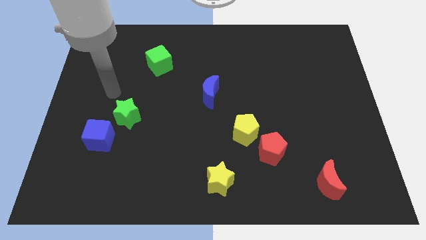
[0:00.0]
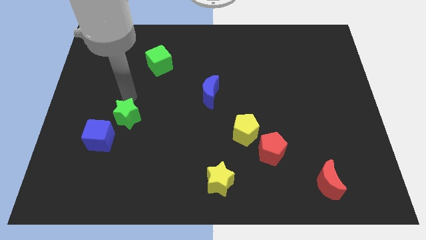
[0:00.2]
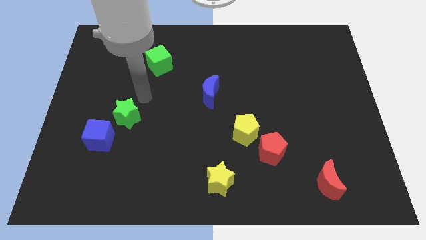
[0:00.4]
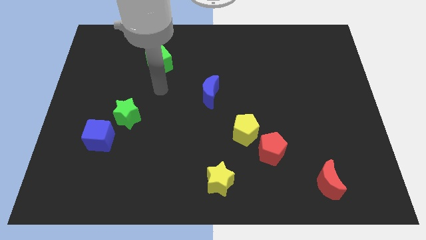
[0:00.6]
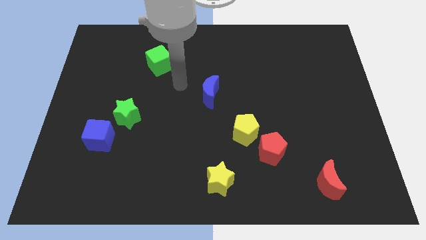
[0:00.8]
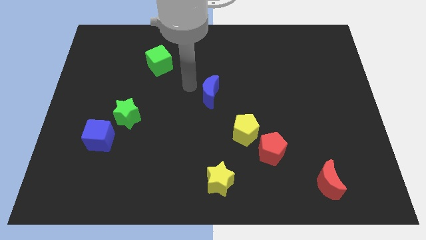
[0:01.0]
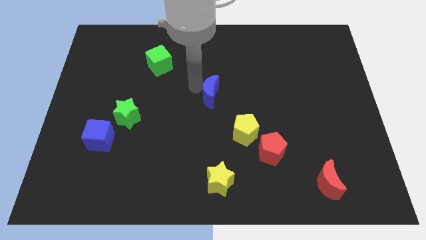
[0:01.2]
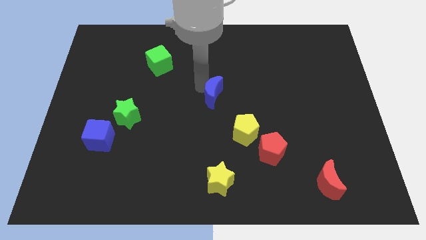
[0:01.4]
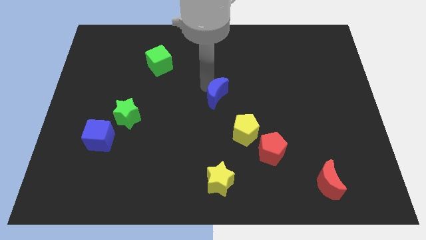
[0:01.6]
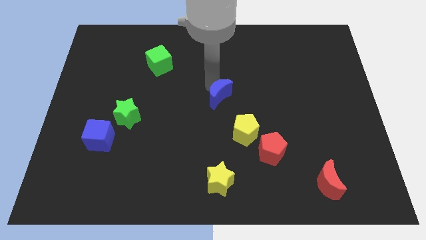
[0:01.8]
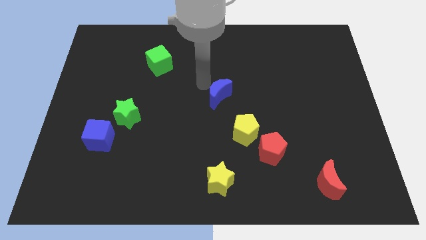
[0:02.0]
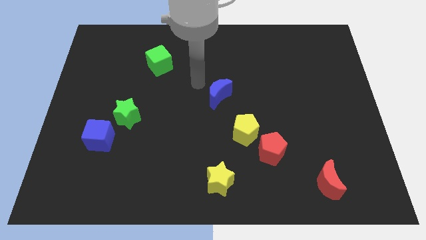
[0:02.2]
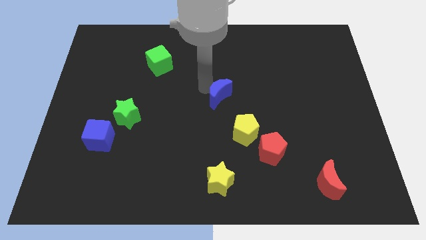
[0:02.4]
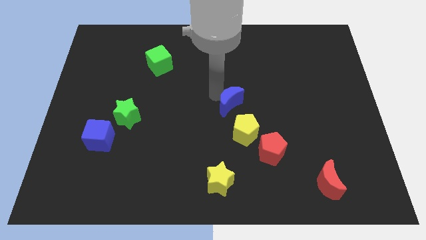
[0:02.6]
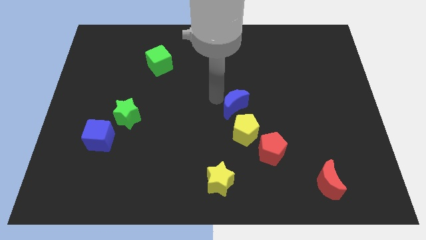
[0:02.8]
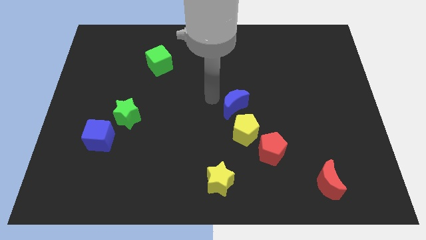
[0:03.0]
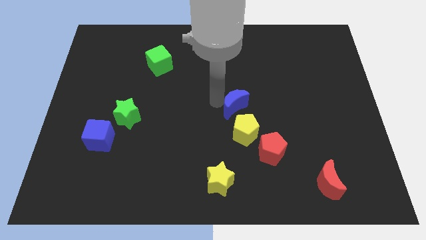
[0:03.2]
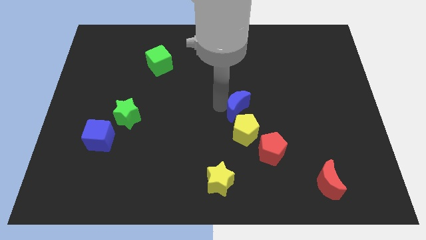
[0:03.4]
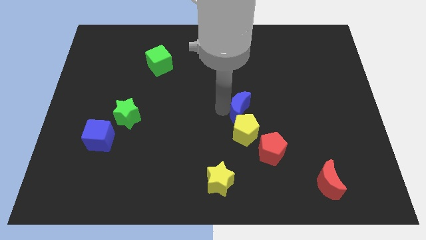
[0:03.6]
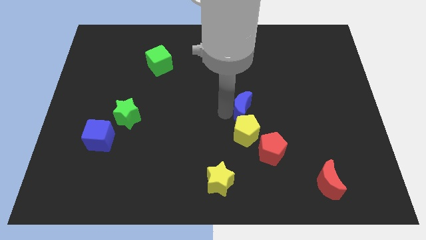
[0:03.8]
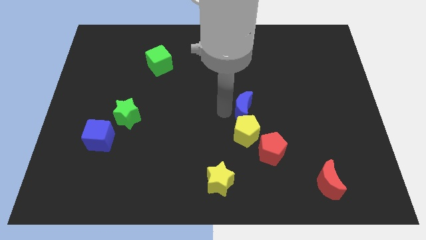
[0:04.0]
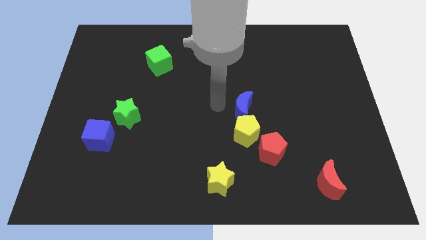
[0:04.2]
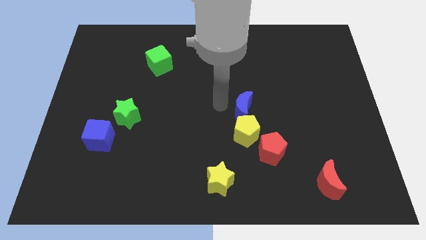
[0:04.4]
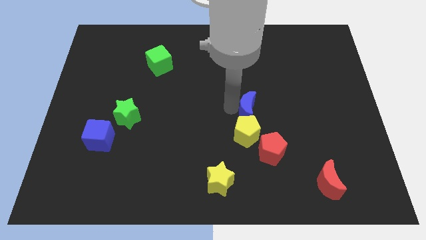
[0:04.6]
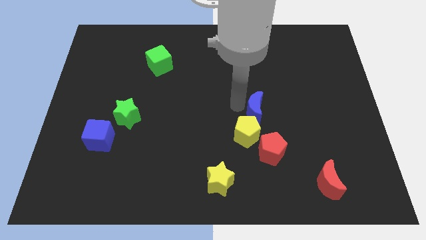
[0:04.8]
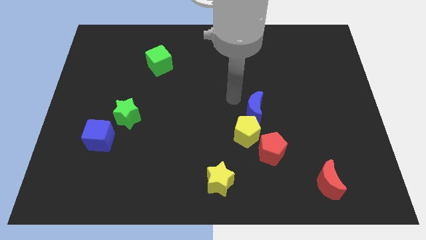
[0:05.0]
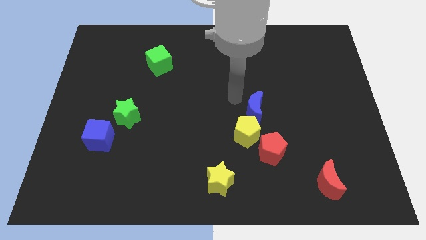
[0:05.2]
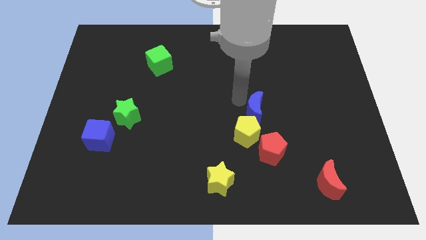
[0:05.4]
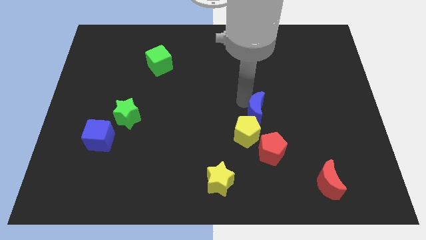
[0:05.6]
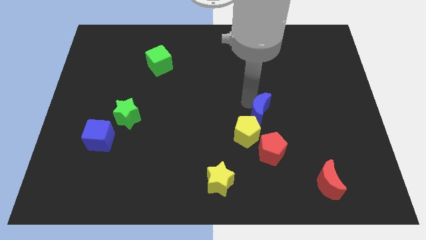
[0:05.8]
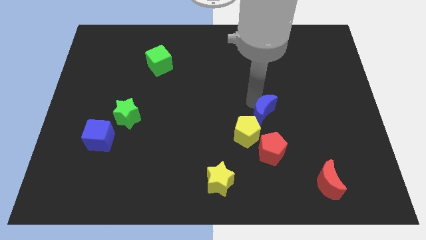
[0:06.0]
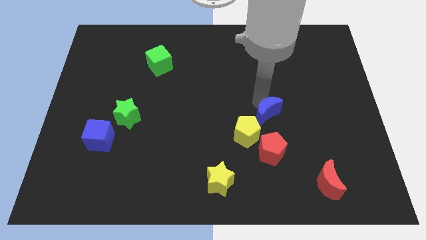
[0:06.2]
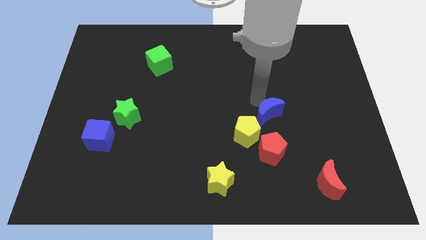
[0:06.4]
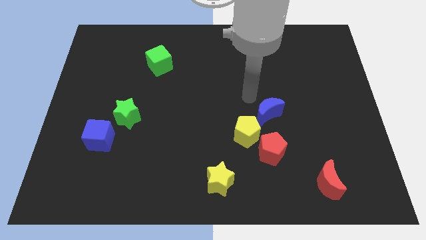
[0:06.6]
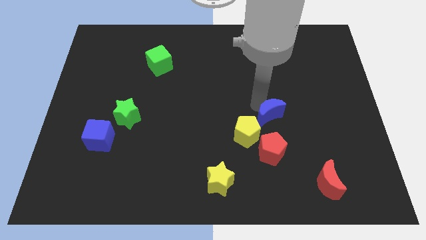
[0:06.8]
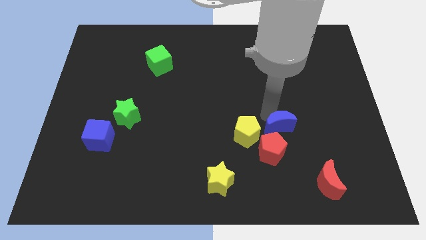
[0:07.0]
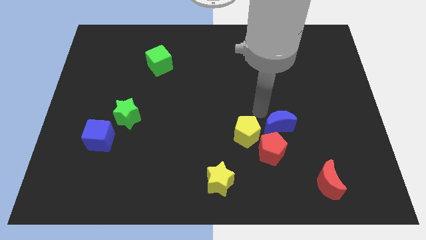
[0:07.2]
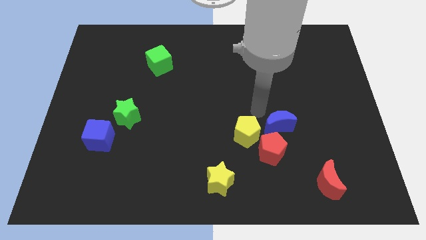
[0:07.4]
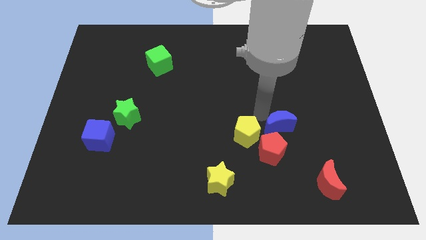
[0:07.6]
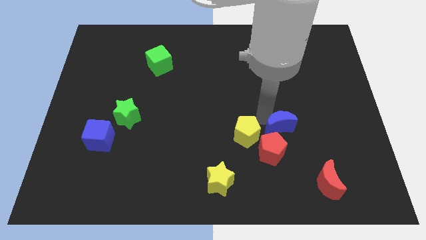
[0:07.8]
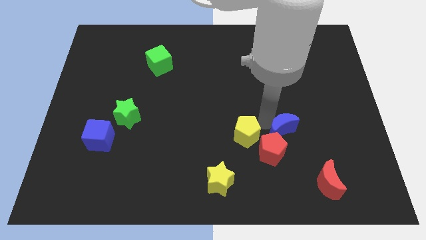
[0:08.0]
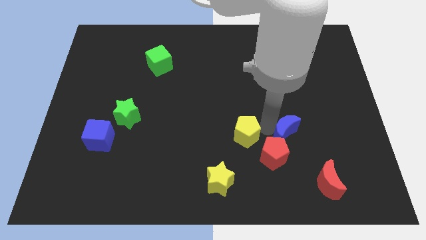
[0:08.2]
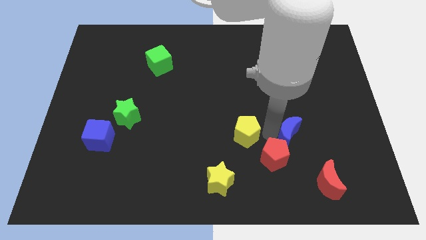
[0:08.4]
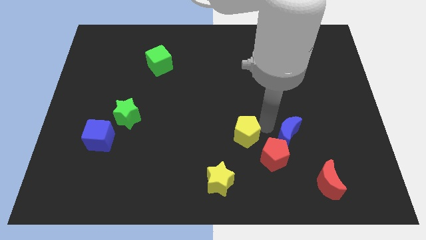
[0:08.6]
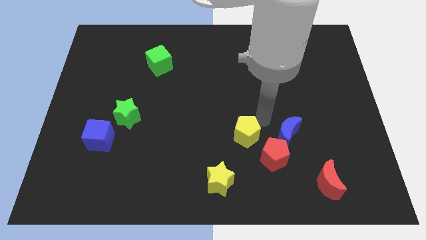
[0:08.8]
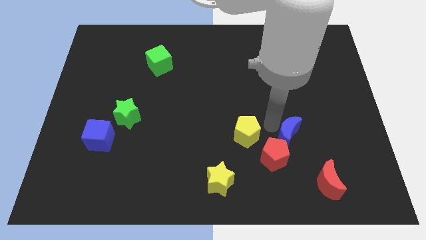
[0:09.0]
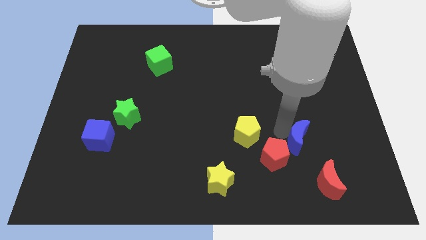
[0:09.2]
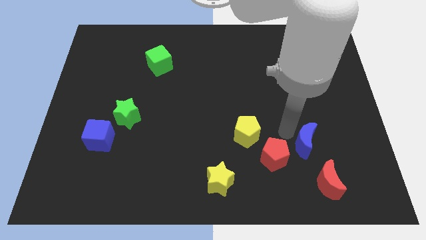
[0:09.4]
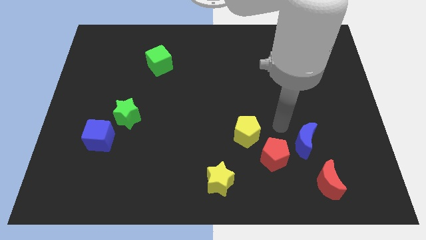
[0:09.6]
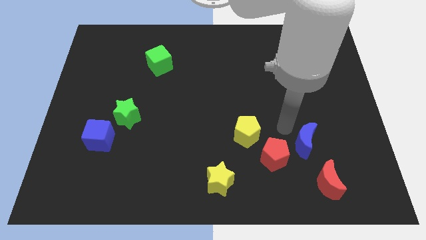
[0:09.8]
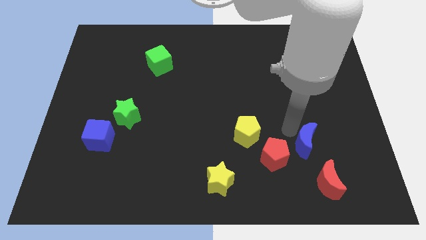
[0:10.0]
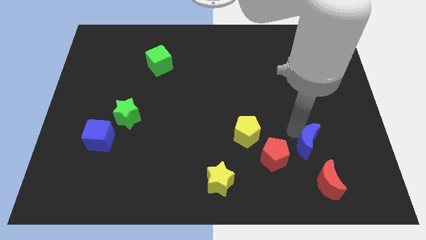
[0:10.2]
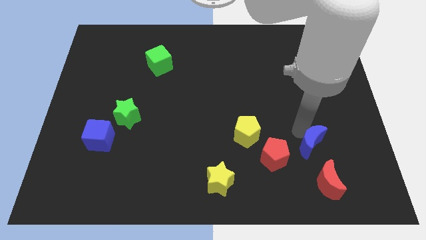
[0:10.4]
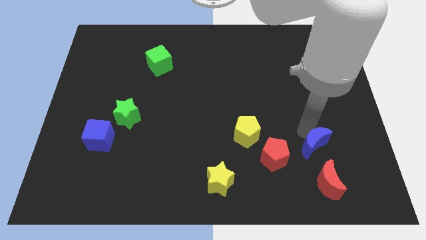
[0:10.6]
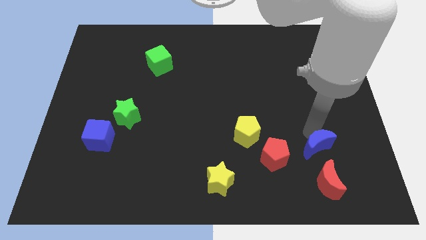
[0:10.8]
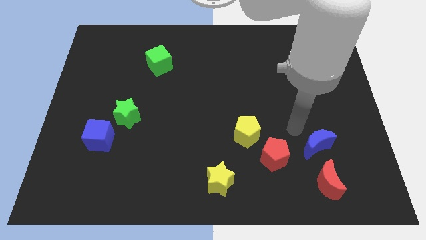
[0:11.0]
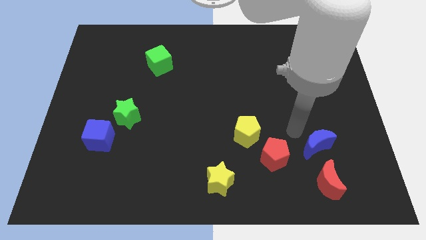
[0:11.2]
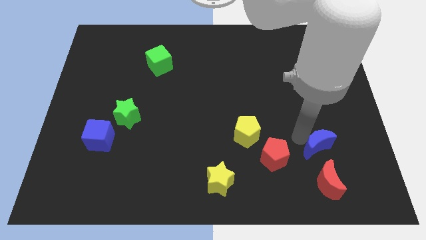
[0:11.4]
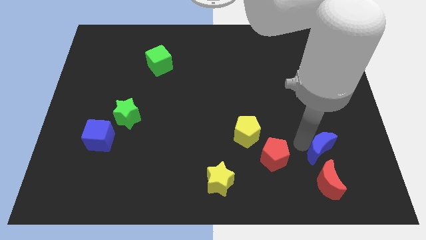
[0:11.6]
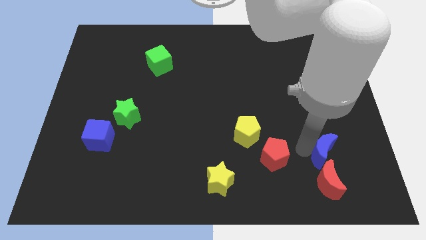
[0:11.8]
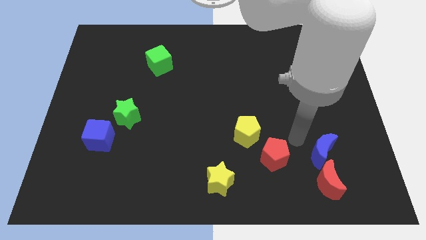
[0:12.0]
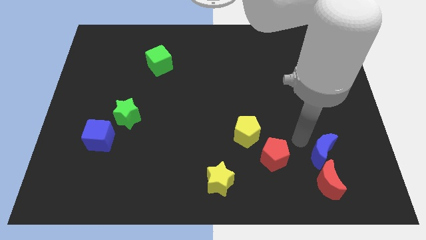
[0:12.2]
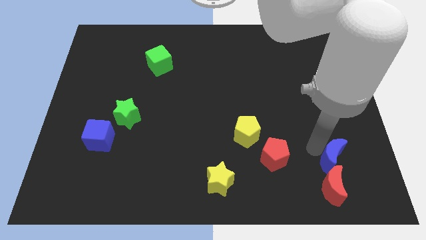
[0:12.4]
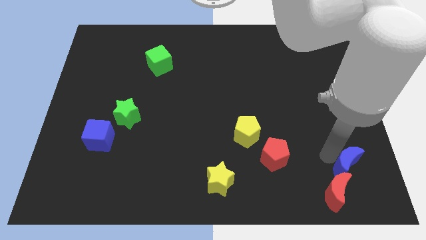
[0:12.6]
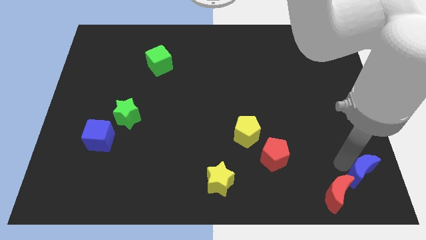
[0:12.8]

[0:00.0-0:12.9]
put the blue moon to the bottom right of the board

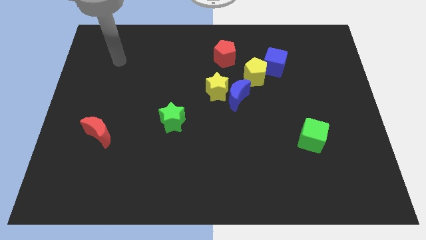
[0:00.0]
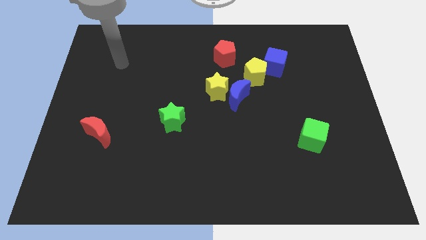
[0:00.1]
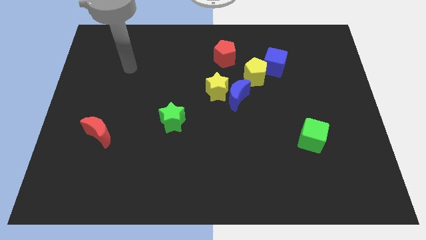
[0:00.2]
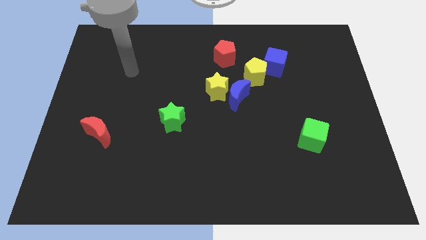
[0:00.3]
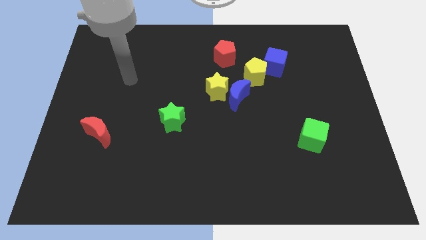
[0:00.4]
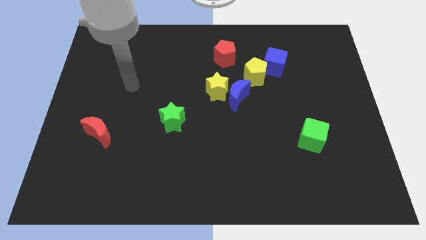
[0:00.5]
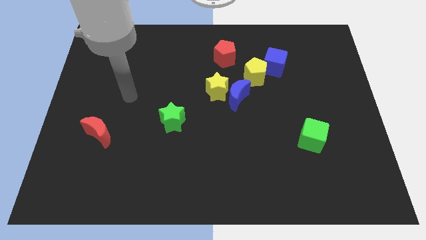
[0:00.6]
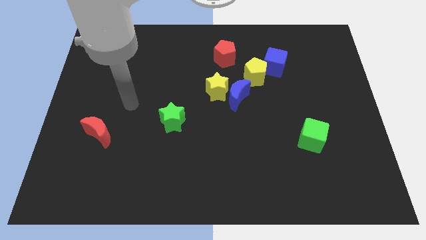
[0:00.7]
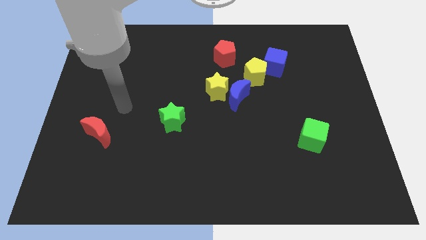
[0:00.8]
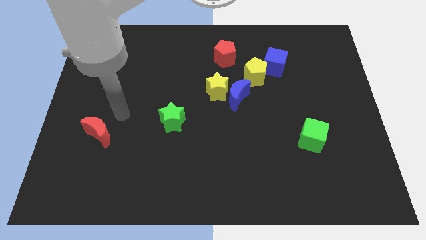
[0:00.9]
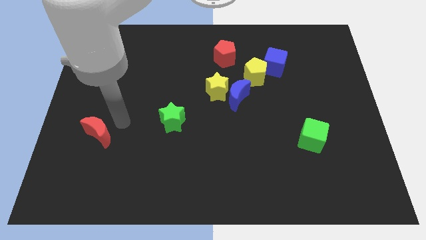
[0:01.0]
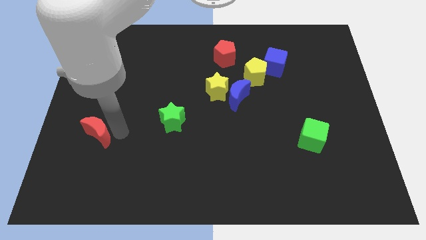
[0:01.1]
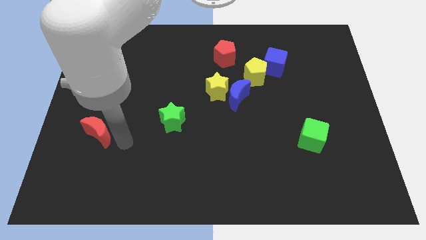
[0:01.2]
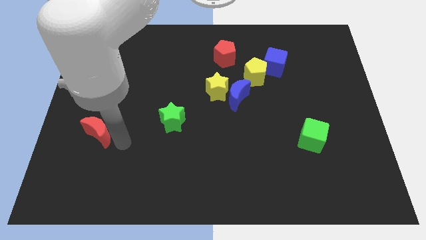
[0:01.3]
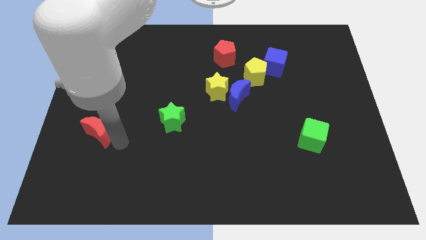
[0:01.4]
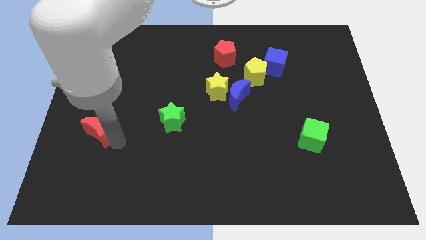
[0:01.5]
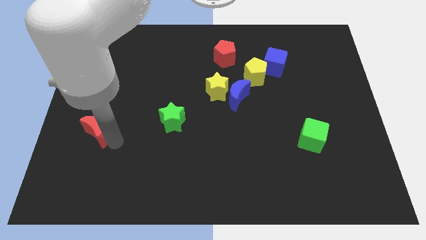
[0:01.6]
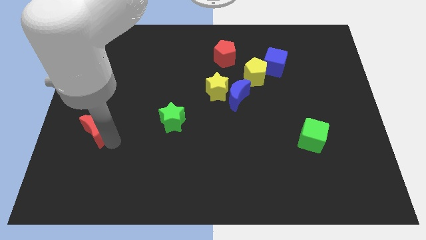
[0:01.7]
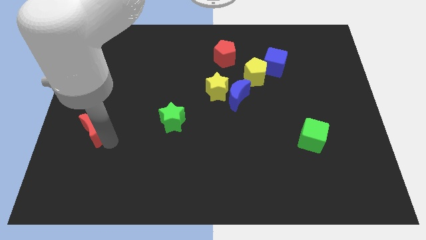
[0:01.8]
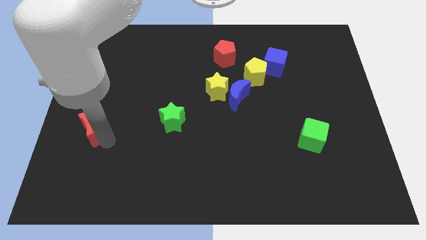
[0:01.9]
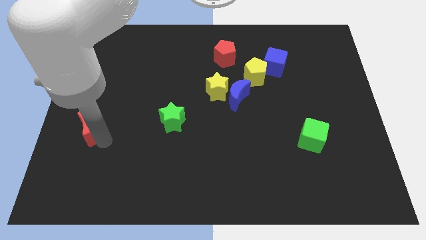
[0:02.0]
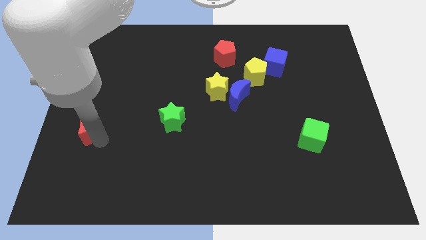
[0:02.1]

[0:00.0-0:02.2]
push the red moon to the left side
